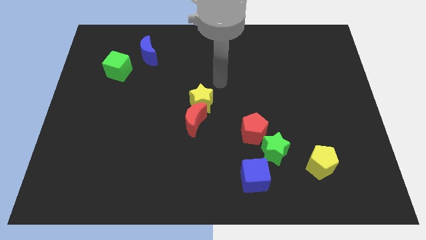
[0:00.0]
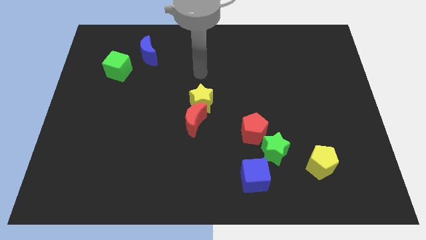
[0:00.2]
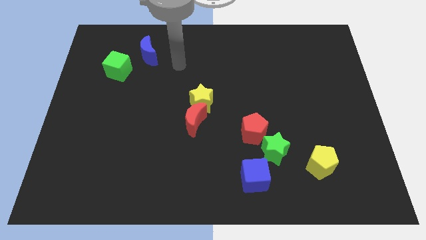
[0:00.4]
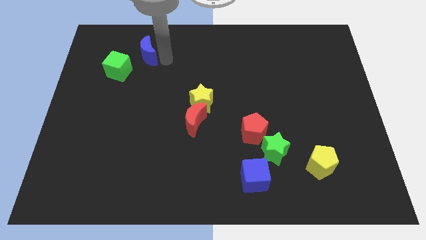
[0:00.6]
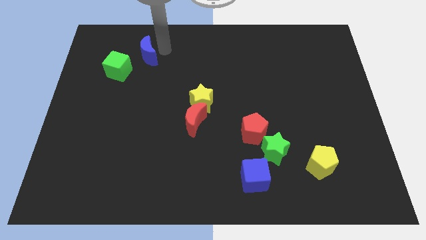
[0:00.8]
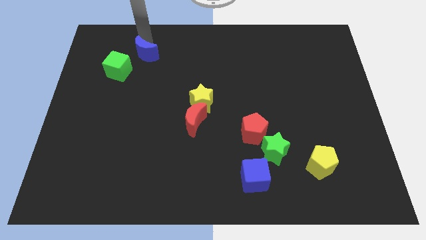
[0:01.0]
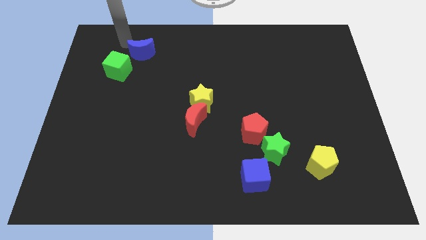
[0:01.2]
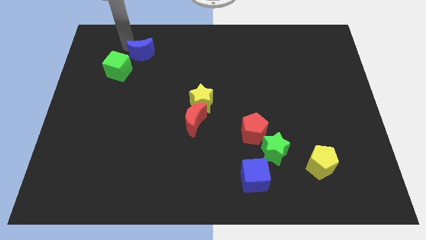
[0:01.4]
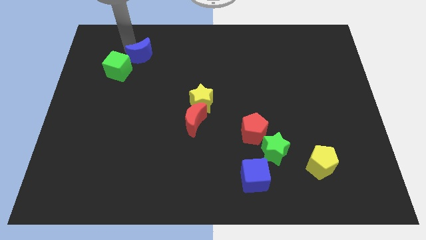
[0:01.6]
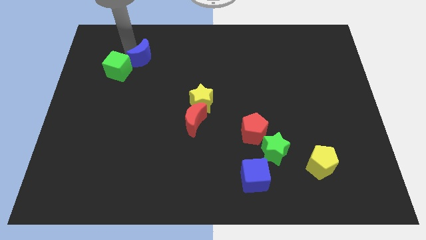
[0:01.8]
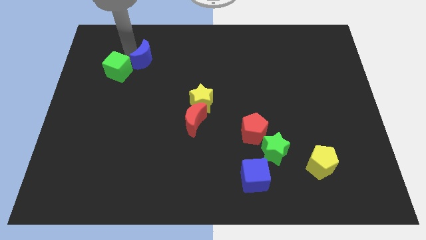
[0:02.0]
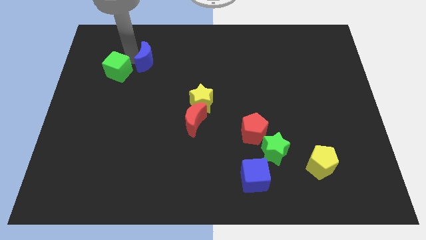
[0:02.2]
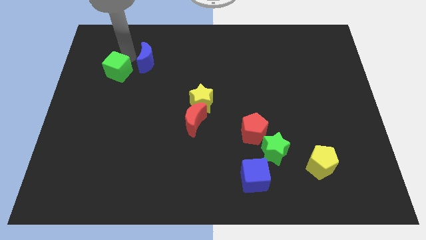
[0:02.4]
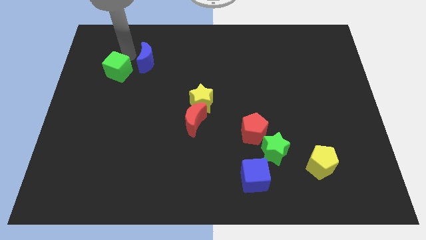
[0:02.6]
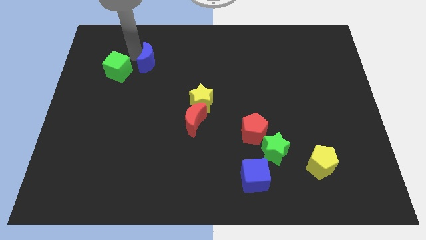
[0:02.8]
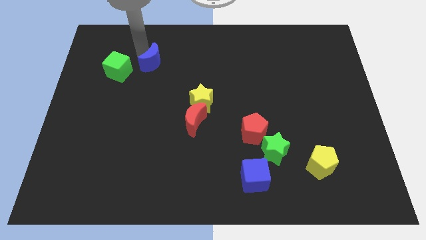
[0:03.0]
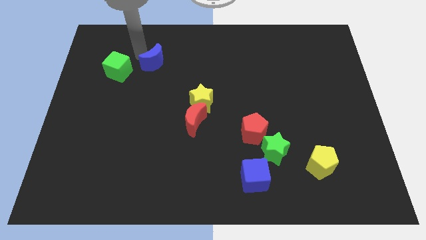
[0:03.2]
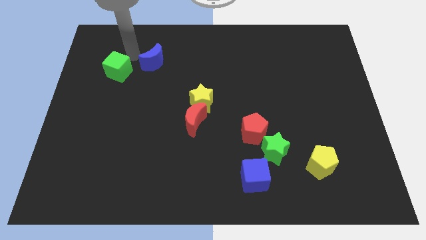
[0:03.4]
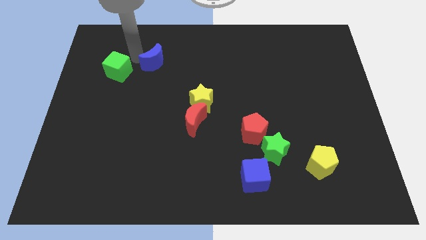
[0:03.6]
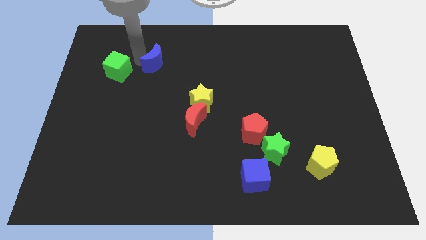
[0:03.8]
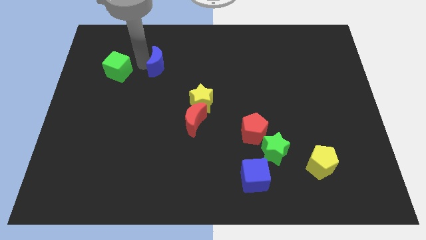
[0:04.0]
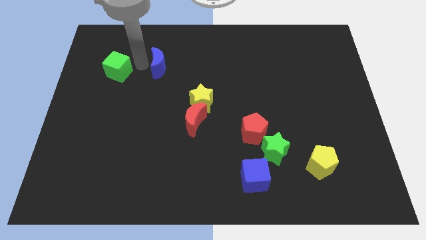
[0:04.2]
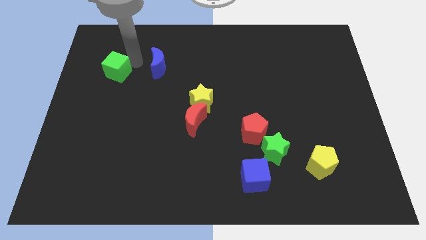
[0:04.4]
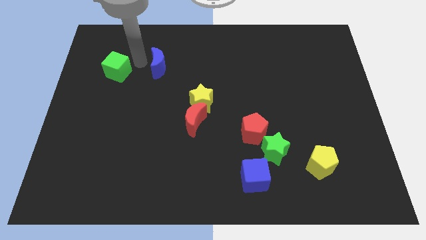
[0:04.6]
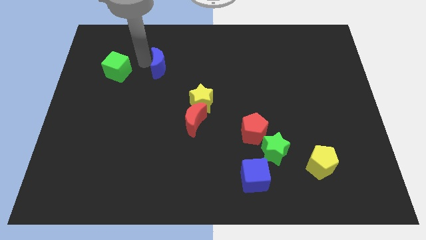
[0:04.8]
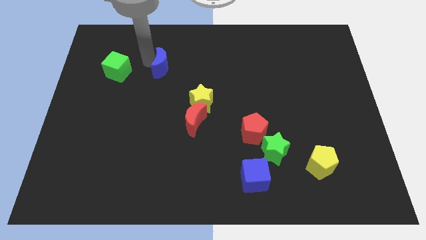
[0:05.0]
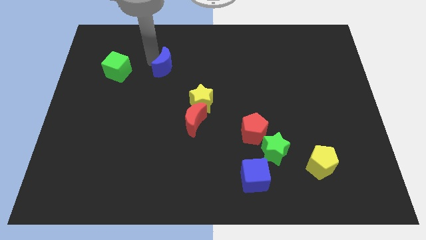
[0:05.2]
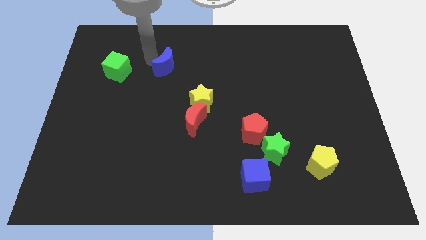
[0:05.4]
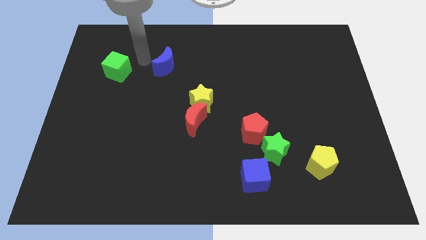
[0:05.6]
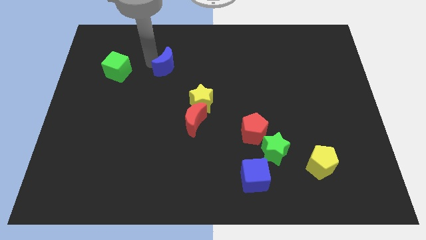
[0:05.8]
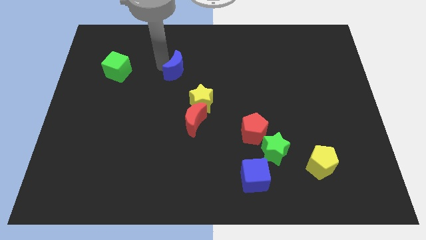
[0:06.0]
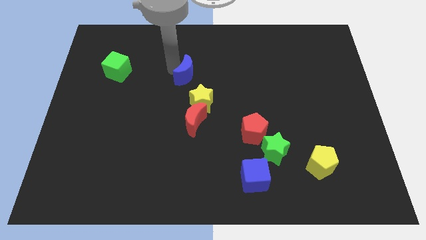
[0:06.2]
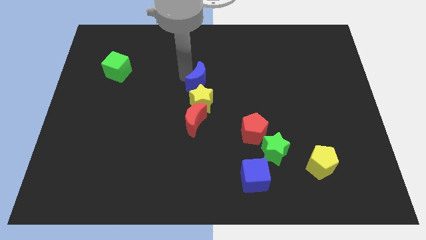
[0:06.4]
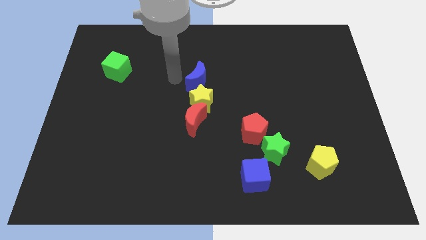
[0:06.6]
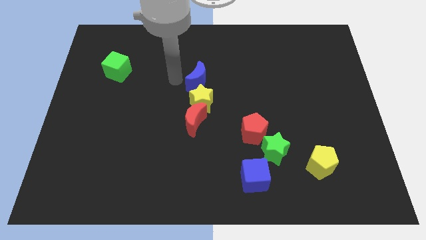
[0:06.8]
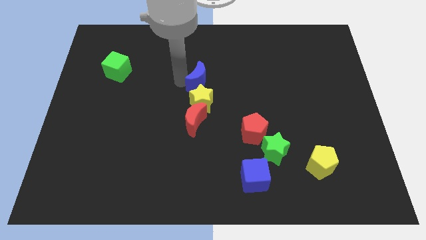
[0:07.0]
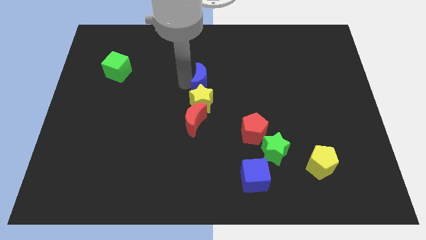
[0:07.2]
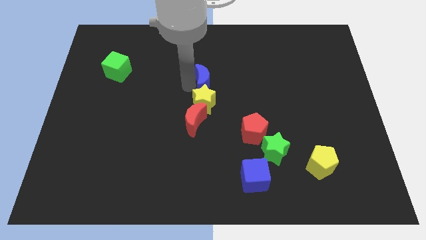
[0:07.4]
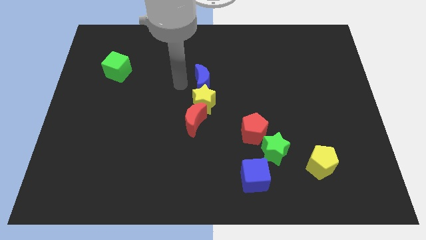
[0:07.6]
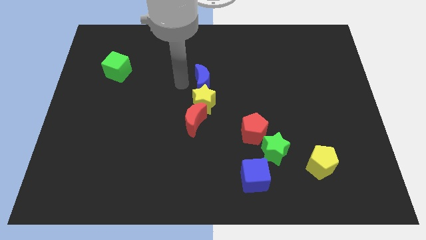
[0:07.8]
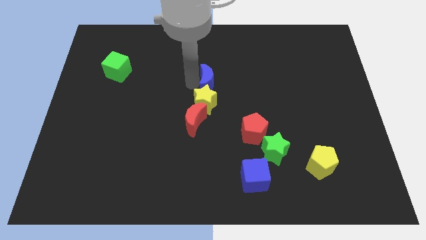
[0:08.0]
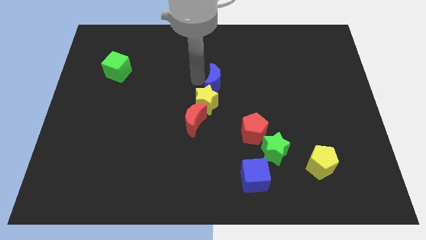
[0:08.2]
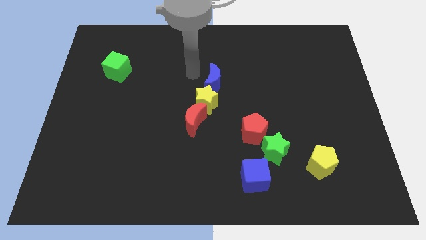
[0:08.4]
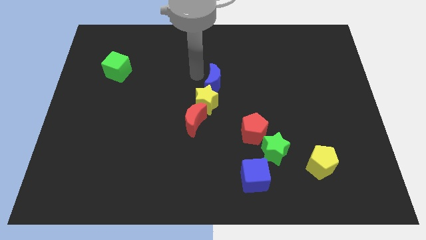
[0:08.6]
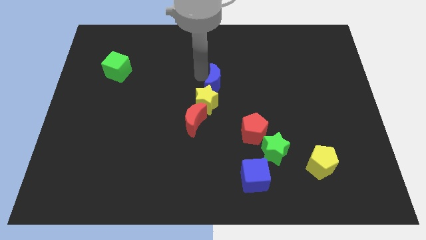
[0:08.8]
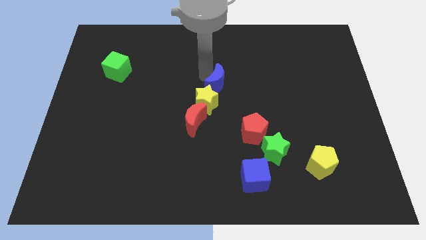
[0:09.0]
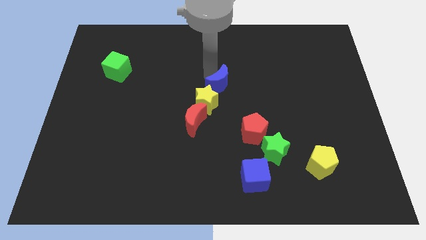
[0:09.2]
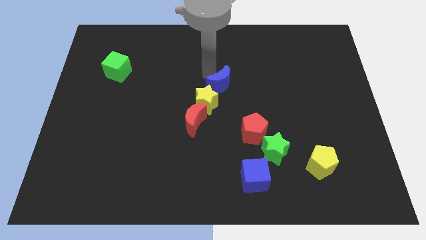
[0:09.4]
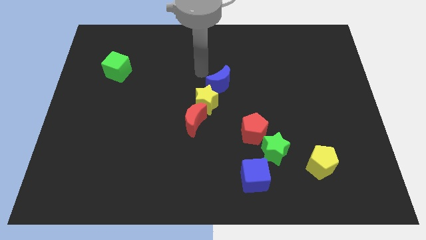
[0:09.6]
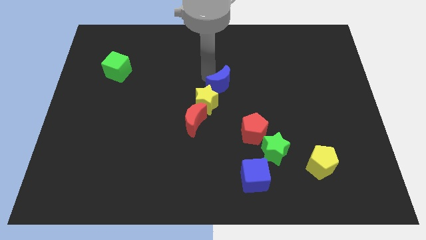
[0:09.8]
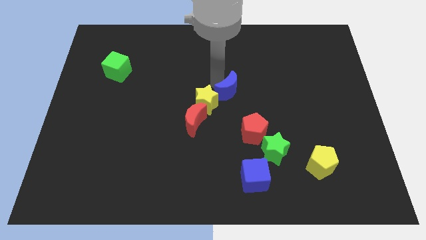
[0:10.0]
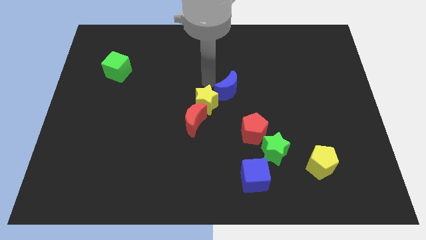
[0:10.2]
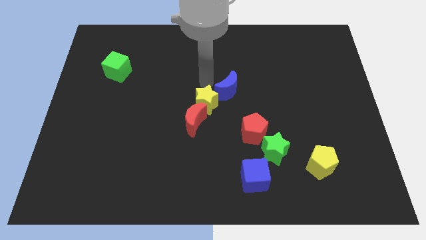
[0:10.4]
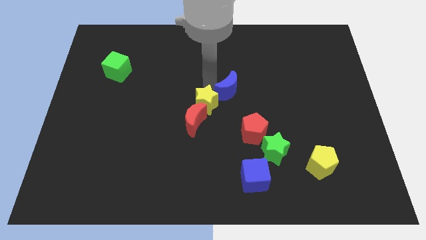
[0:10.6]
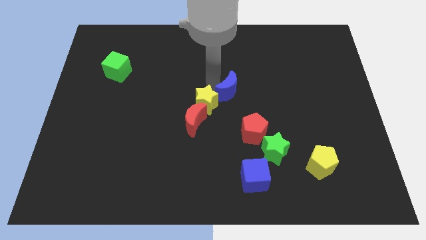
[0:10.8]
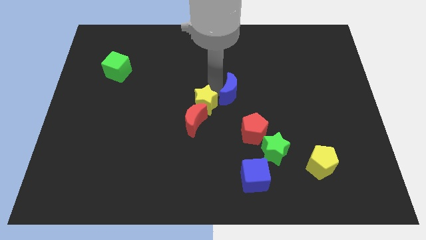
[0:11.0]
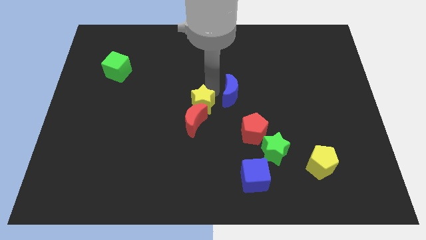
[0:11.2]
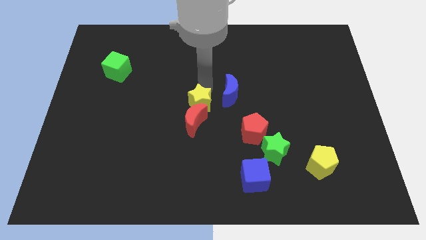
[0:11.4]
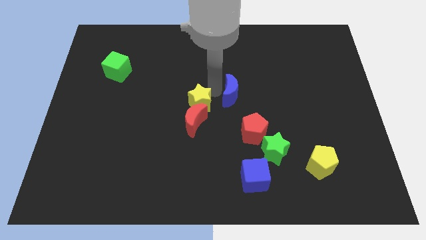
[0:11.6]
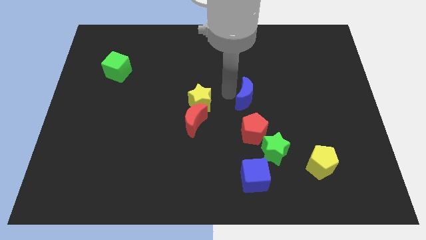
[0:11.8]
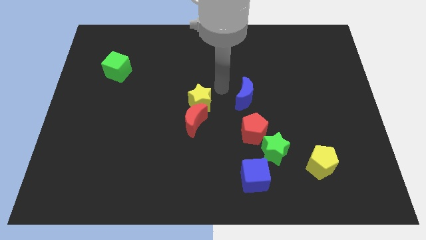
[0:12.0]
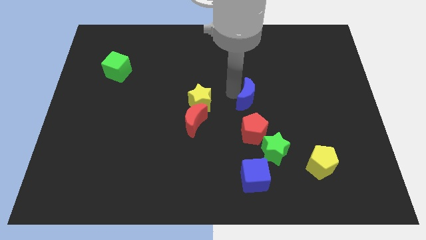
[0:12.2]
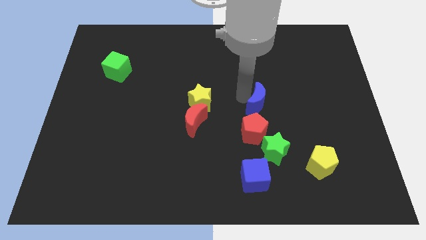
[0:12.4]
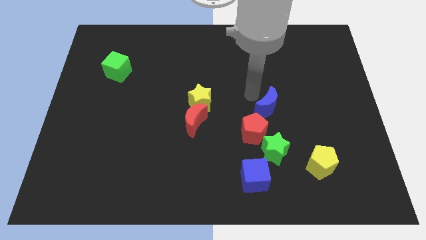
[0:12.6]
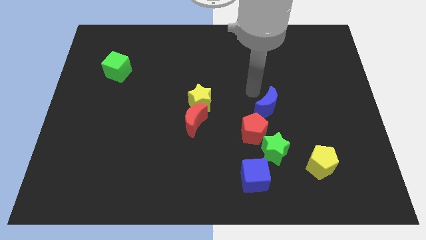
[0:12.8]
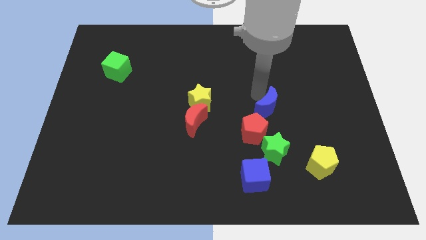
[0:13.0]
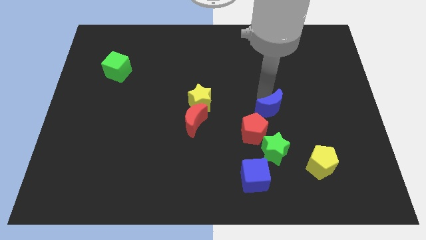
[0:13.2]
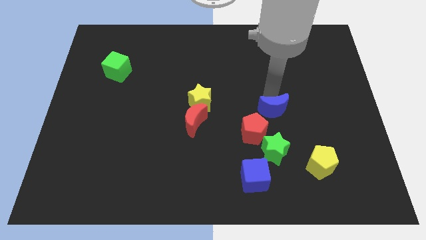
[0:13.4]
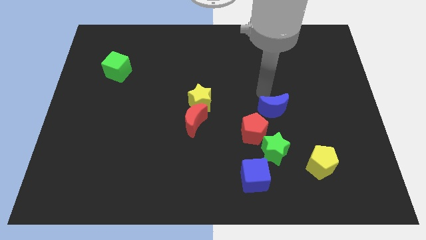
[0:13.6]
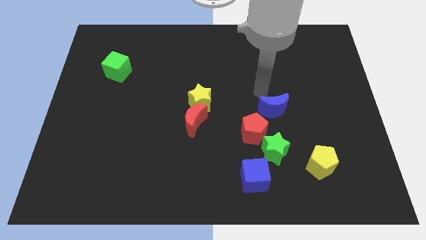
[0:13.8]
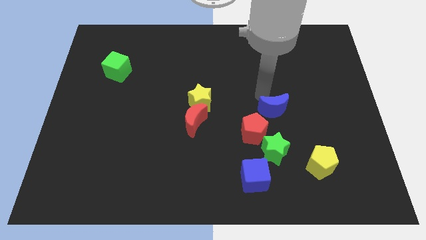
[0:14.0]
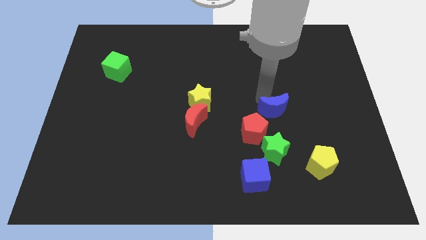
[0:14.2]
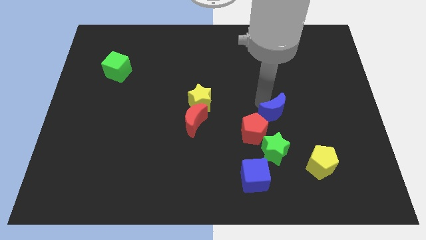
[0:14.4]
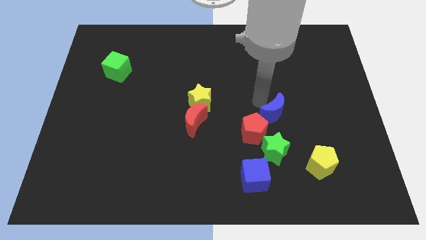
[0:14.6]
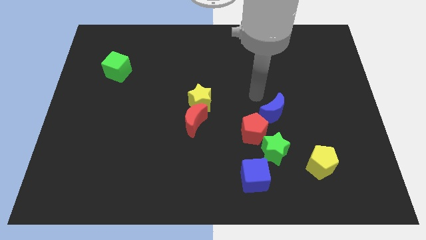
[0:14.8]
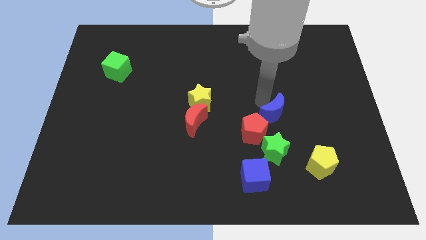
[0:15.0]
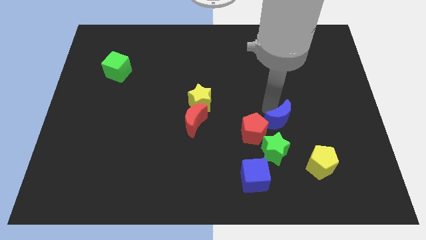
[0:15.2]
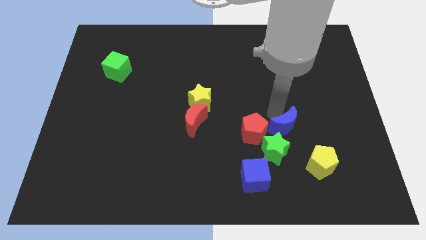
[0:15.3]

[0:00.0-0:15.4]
push the blue moon to the top left side of the yellow pentagon
